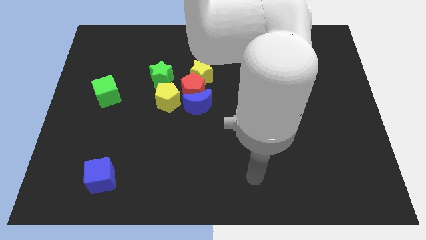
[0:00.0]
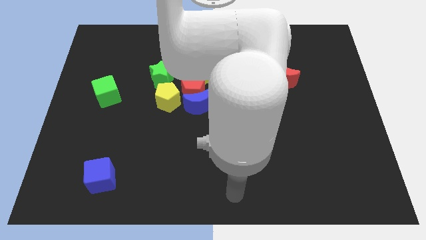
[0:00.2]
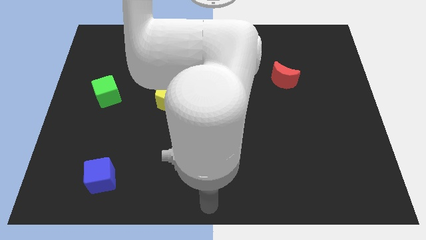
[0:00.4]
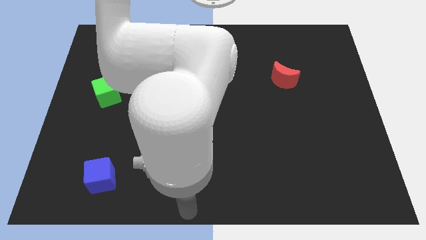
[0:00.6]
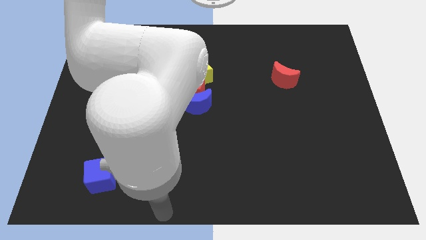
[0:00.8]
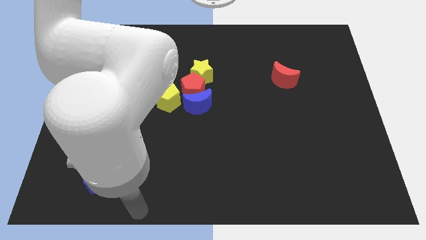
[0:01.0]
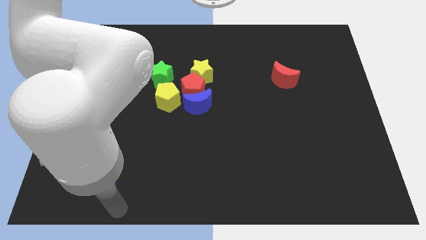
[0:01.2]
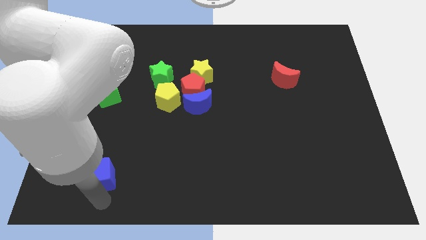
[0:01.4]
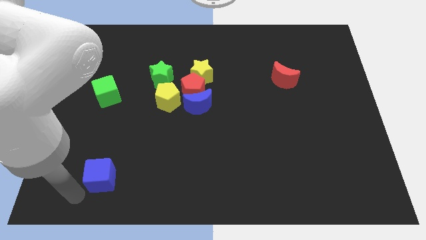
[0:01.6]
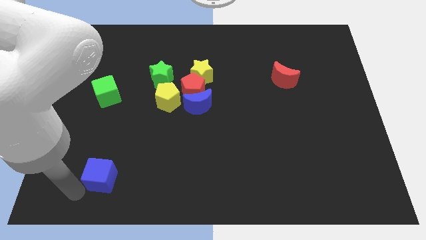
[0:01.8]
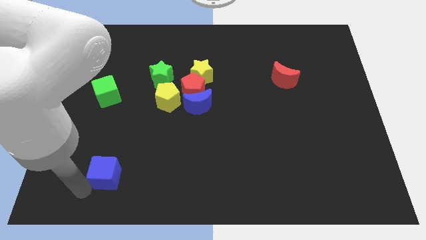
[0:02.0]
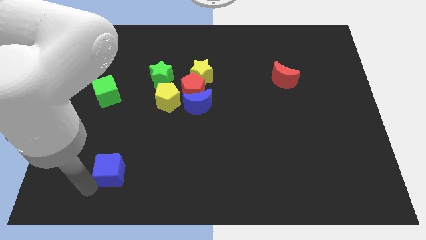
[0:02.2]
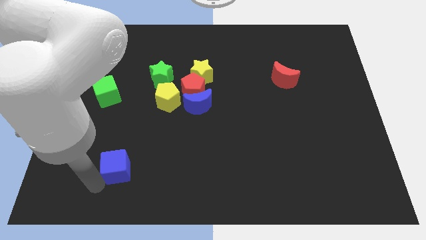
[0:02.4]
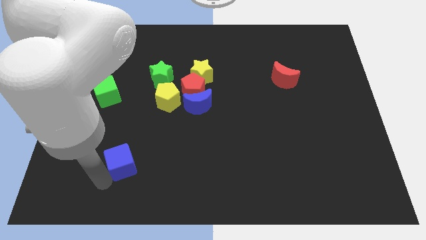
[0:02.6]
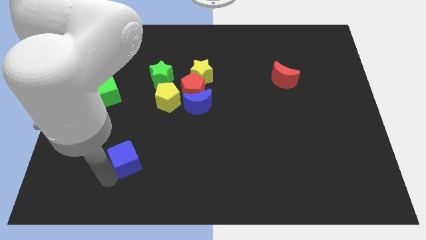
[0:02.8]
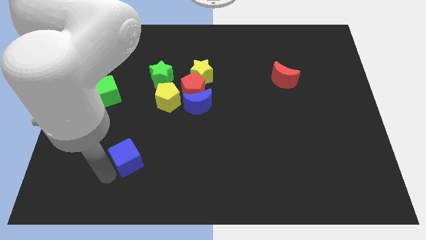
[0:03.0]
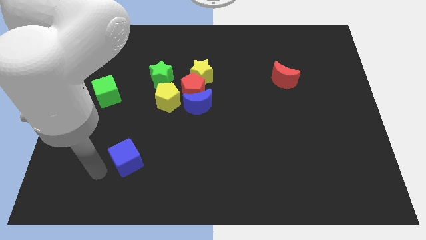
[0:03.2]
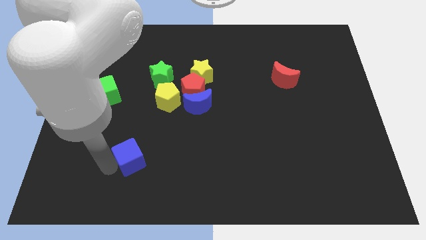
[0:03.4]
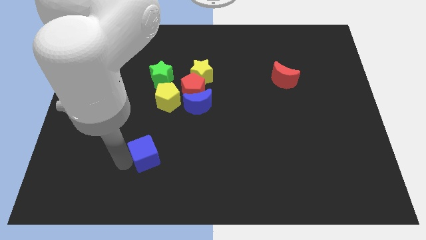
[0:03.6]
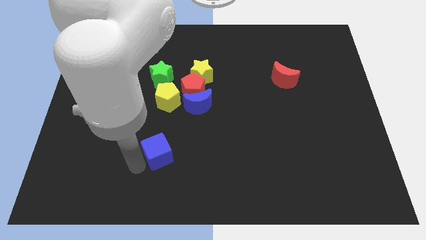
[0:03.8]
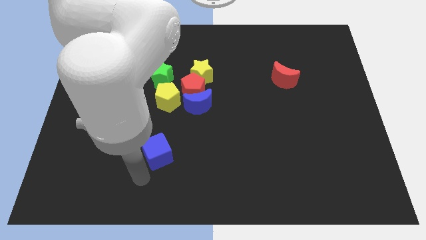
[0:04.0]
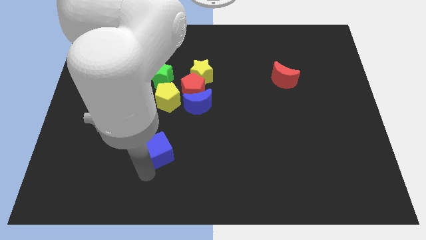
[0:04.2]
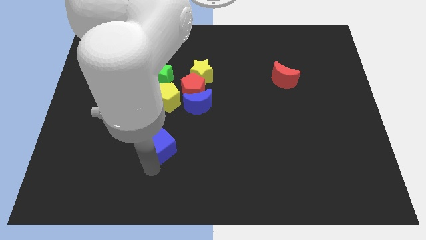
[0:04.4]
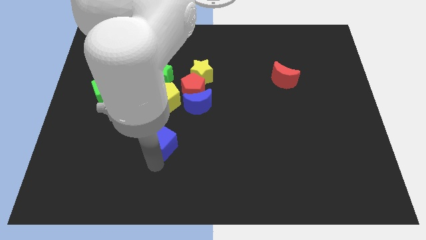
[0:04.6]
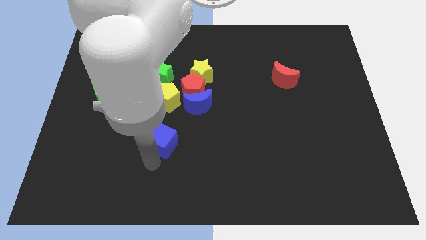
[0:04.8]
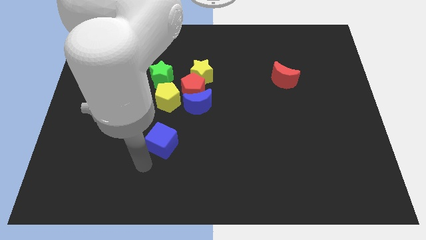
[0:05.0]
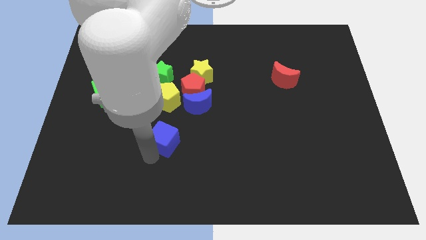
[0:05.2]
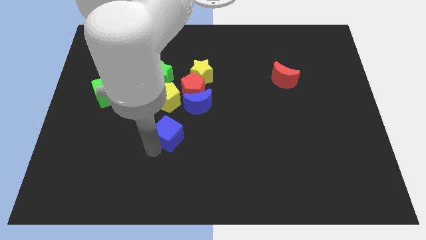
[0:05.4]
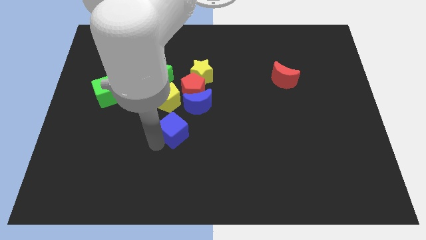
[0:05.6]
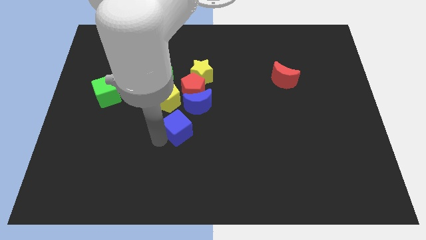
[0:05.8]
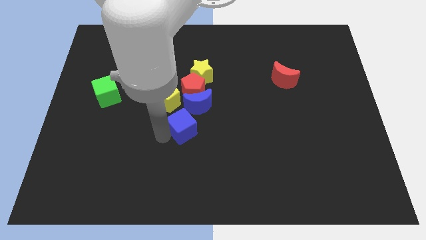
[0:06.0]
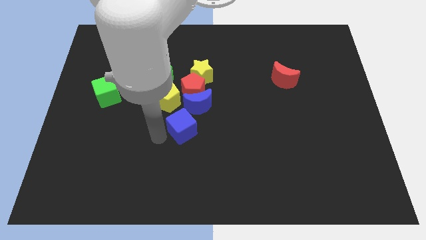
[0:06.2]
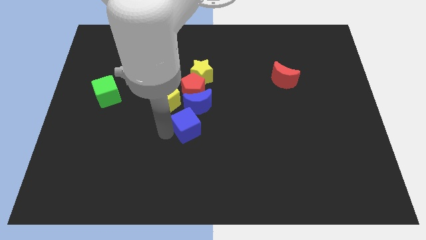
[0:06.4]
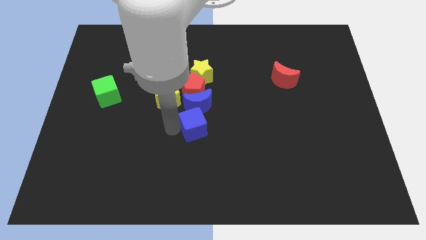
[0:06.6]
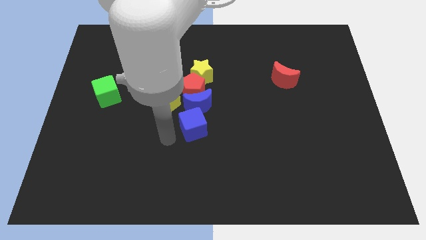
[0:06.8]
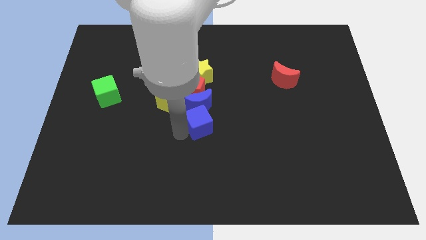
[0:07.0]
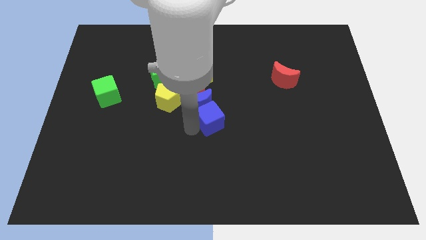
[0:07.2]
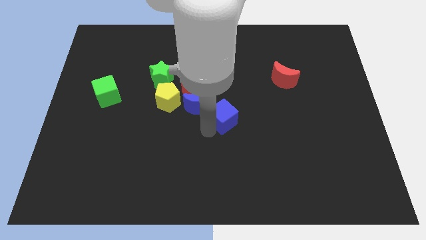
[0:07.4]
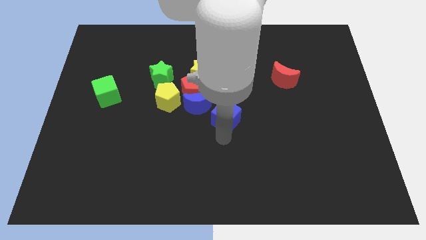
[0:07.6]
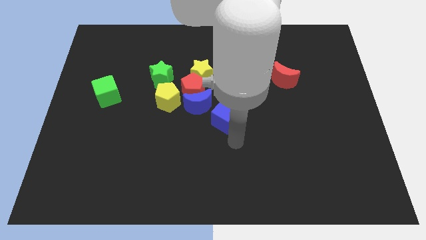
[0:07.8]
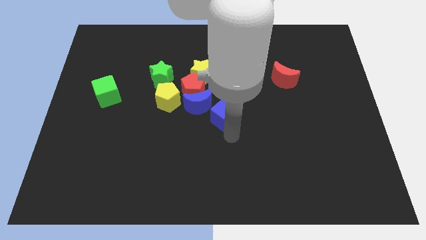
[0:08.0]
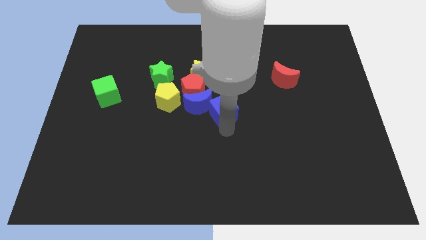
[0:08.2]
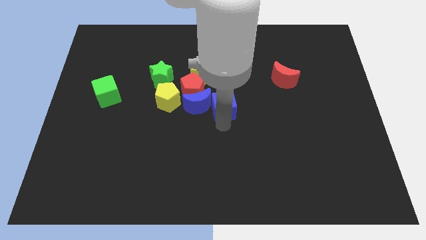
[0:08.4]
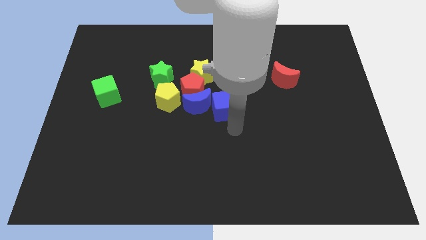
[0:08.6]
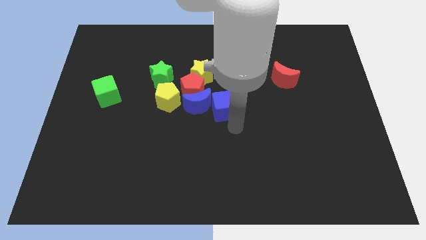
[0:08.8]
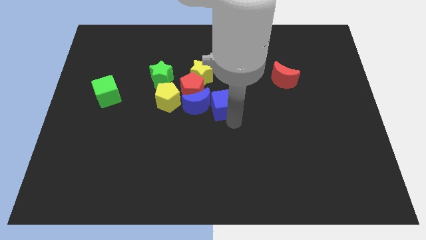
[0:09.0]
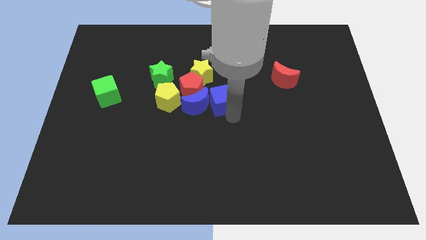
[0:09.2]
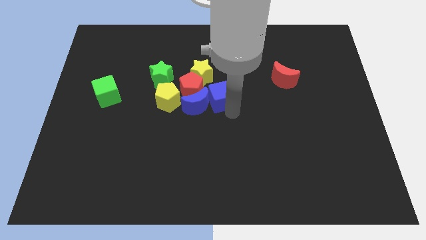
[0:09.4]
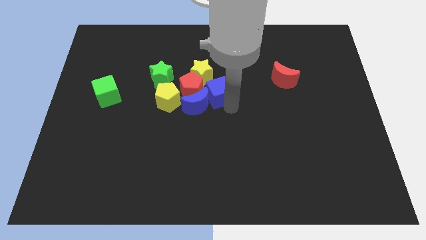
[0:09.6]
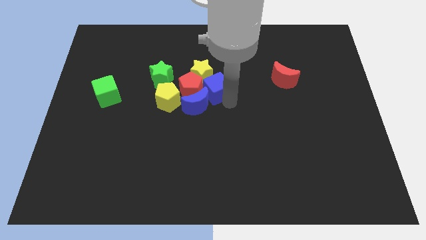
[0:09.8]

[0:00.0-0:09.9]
push the blue cube to the yellow star

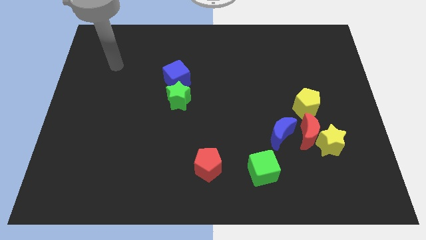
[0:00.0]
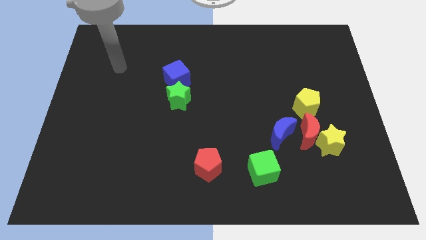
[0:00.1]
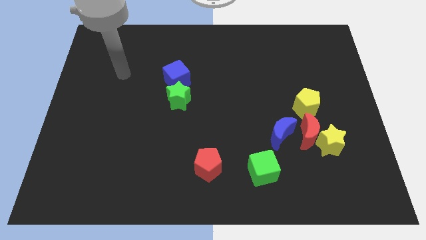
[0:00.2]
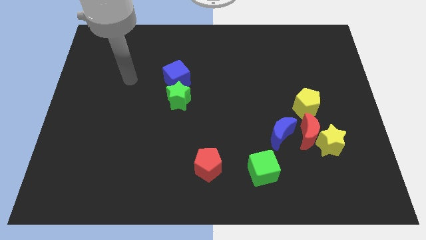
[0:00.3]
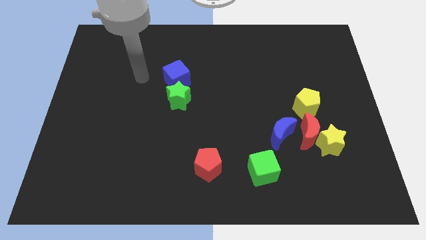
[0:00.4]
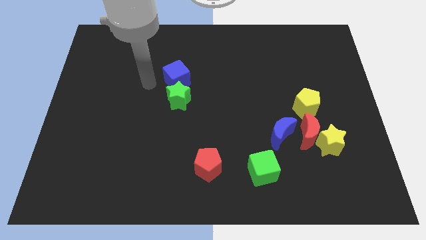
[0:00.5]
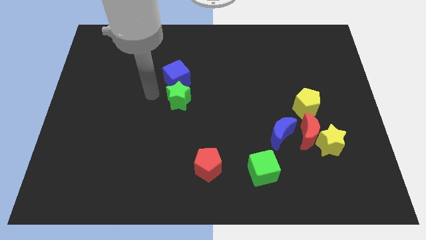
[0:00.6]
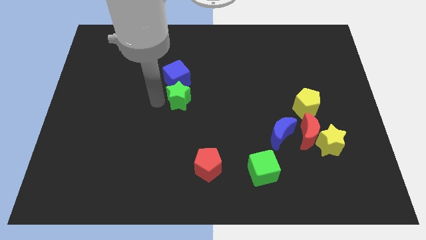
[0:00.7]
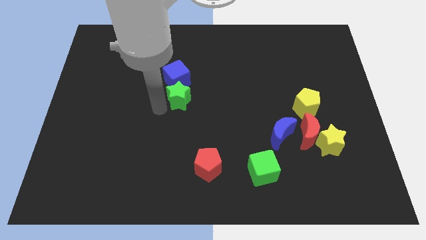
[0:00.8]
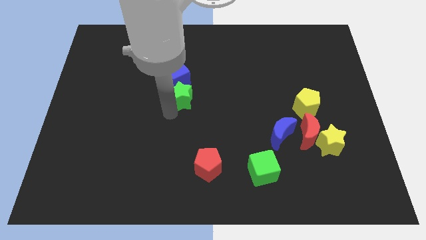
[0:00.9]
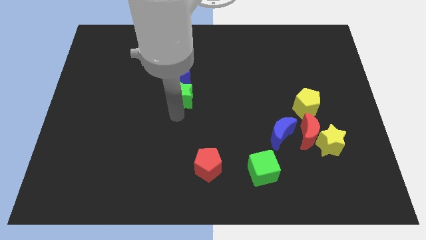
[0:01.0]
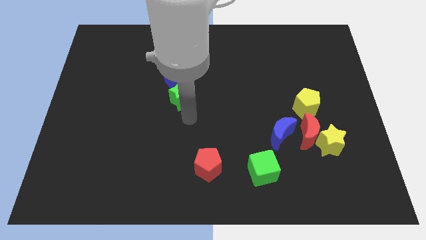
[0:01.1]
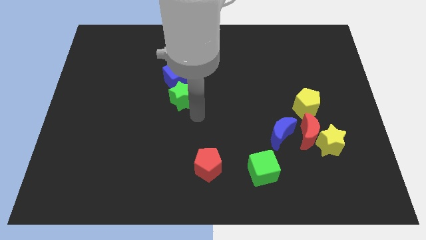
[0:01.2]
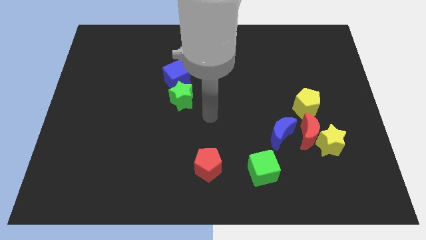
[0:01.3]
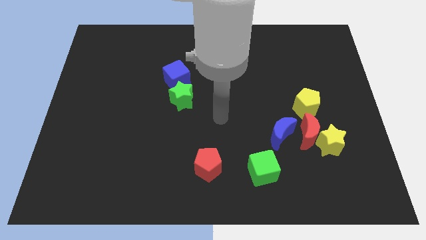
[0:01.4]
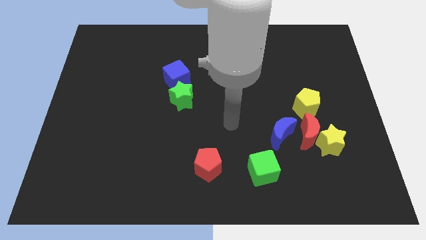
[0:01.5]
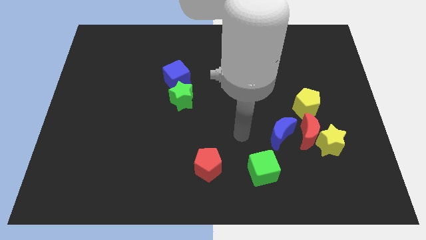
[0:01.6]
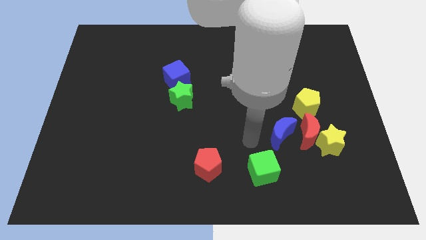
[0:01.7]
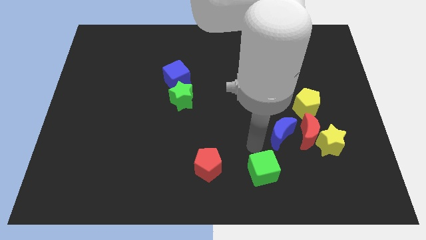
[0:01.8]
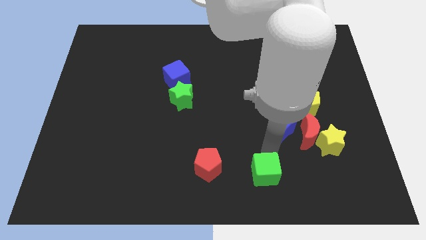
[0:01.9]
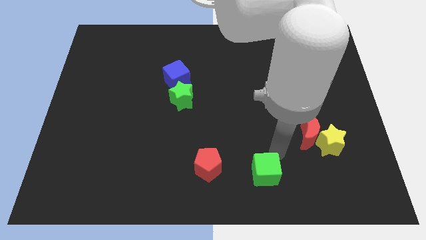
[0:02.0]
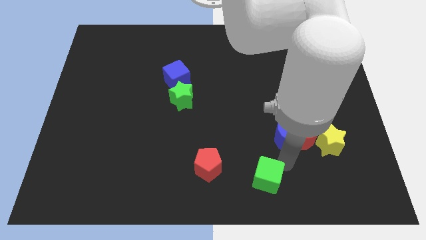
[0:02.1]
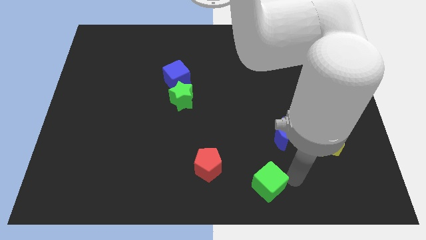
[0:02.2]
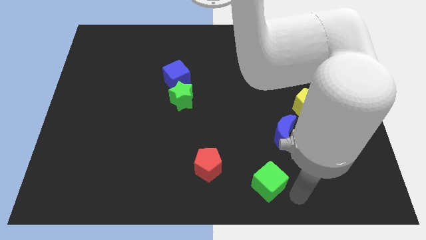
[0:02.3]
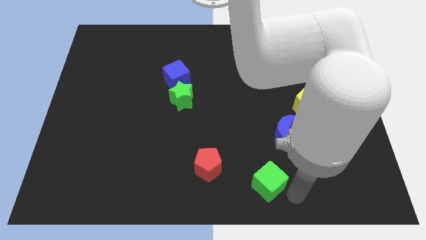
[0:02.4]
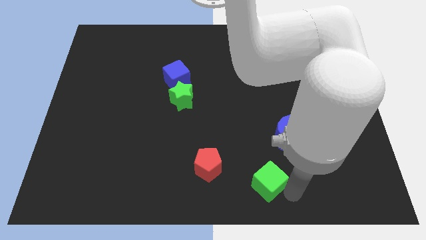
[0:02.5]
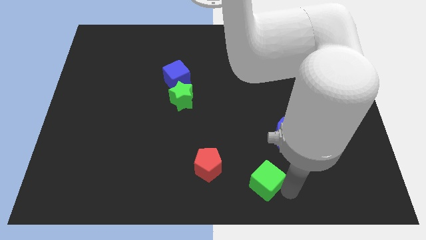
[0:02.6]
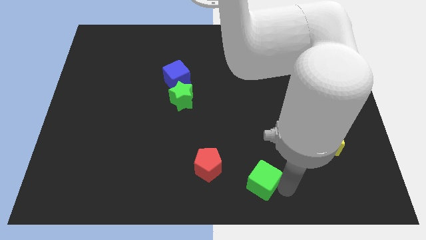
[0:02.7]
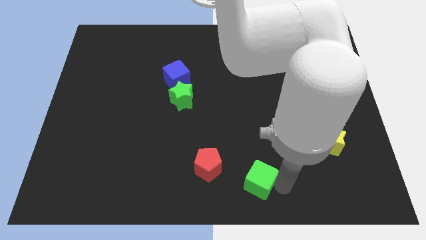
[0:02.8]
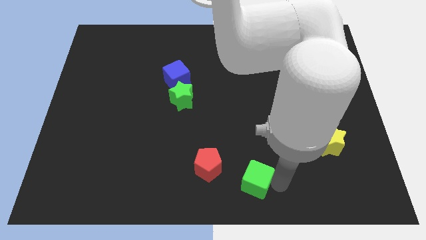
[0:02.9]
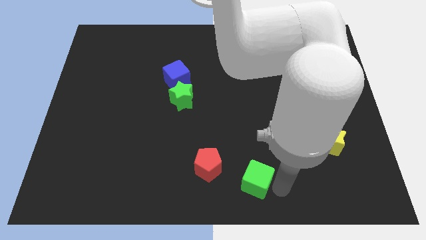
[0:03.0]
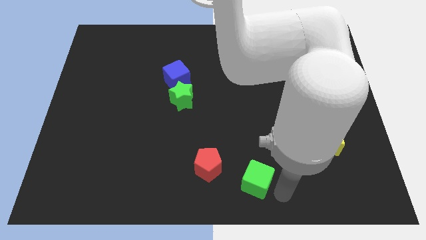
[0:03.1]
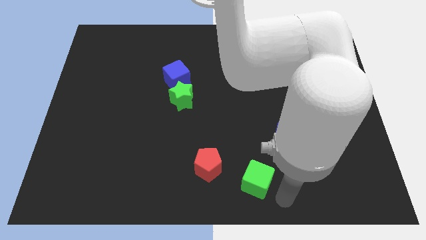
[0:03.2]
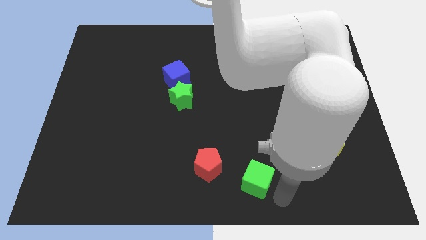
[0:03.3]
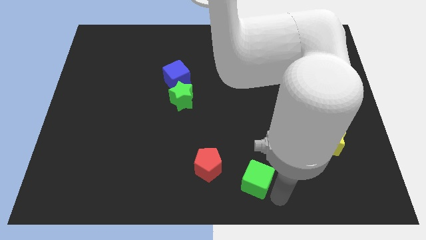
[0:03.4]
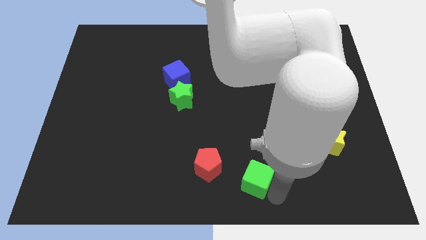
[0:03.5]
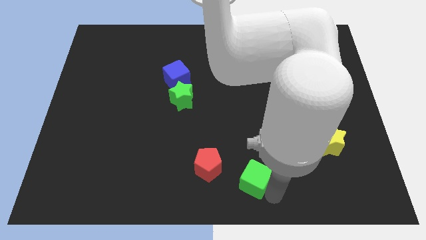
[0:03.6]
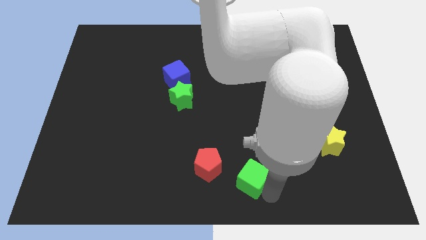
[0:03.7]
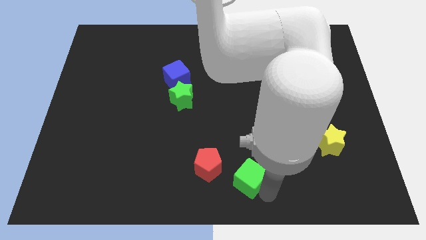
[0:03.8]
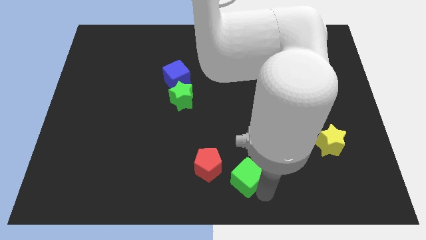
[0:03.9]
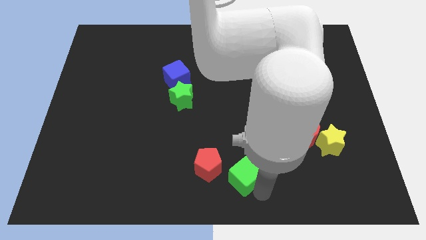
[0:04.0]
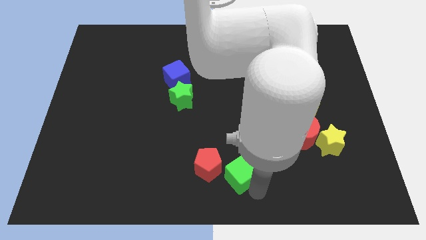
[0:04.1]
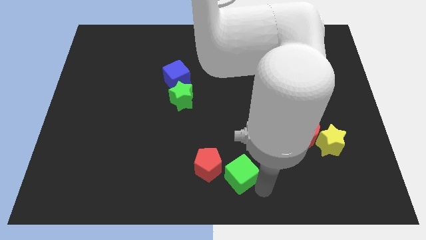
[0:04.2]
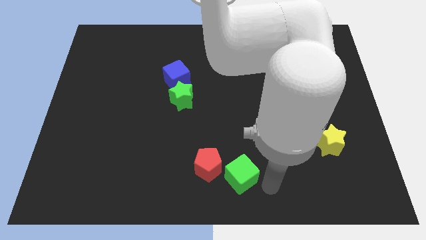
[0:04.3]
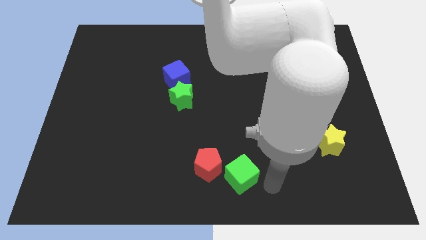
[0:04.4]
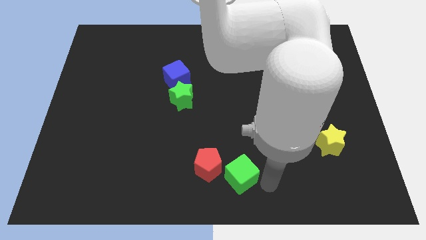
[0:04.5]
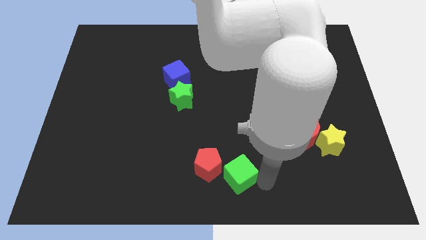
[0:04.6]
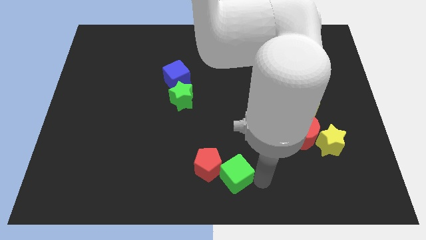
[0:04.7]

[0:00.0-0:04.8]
move the green cube close to the red pentagon
